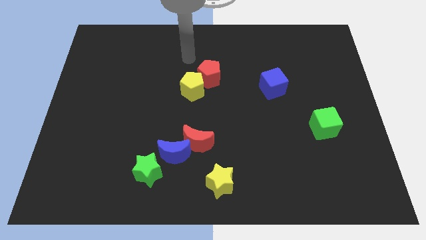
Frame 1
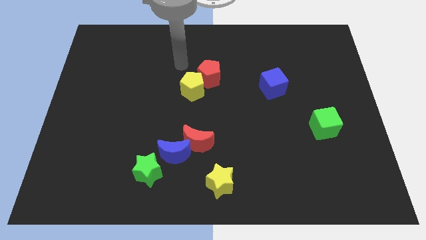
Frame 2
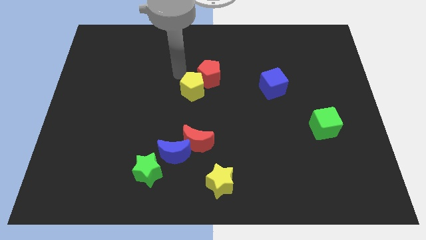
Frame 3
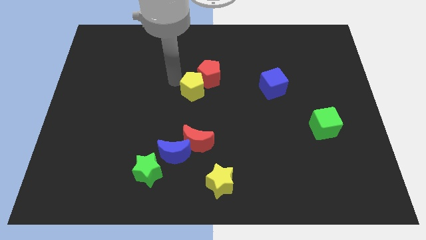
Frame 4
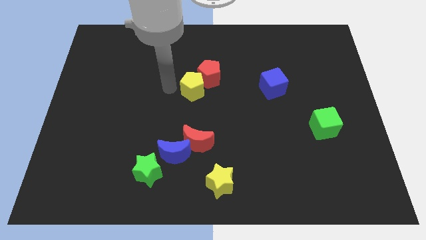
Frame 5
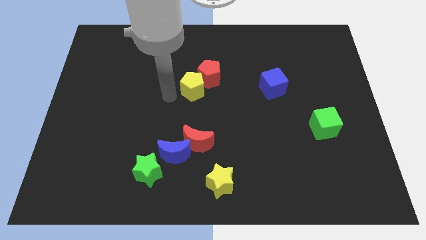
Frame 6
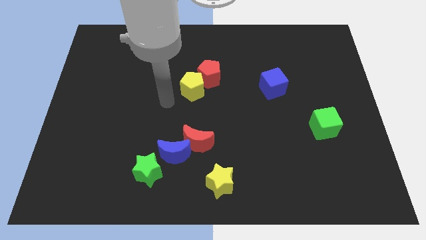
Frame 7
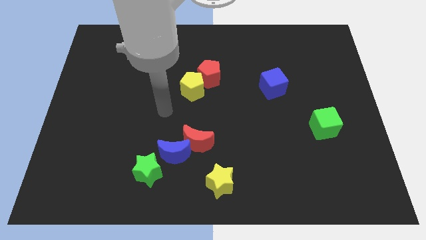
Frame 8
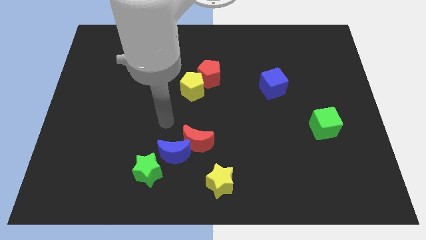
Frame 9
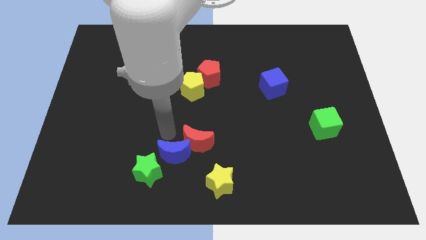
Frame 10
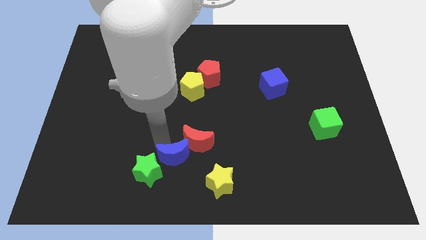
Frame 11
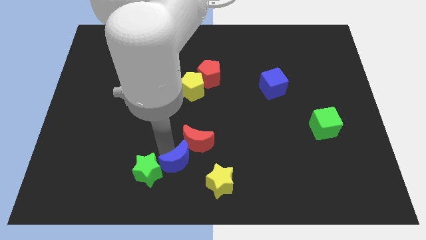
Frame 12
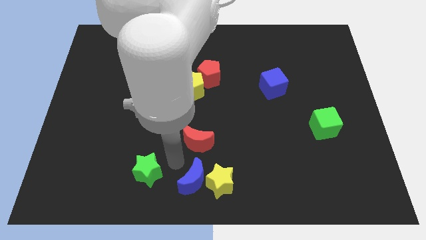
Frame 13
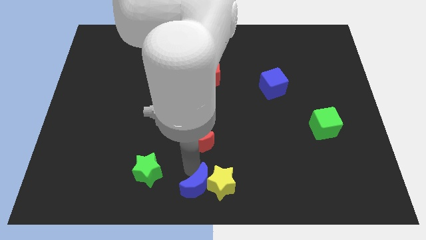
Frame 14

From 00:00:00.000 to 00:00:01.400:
pull the red moon apart from the blue moon

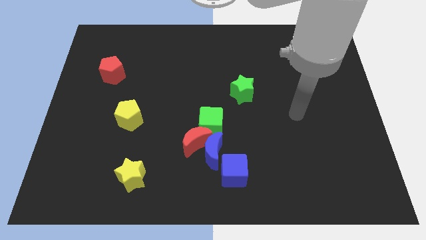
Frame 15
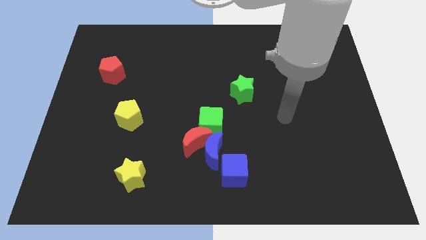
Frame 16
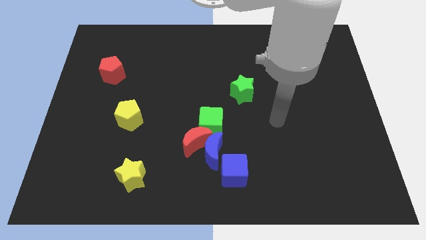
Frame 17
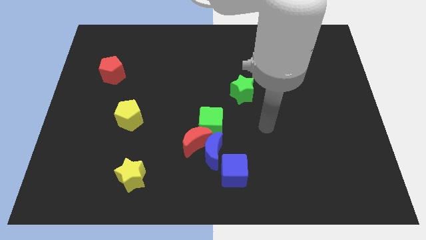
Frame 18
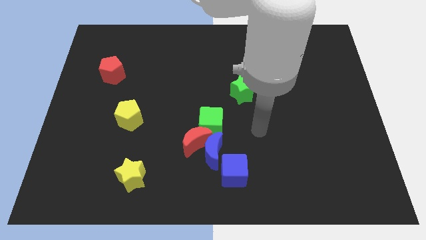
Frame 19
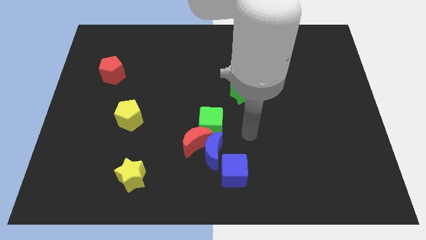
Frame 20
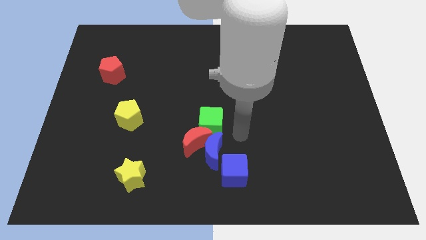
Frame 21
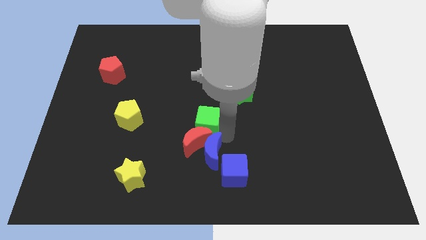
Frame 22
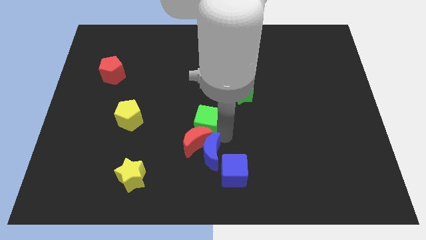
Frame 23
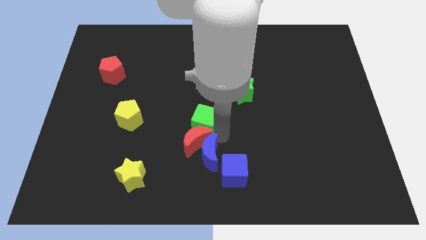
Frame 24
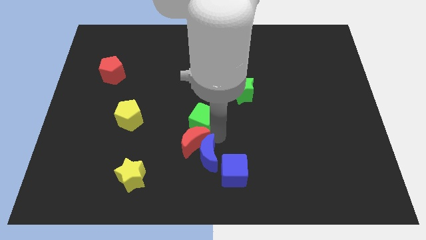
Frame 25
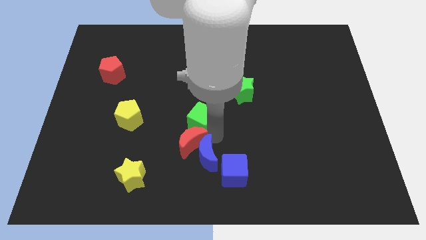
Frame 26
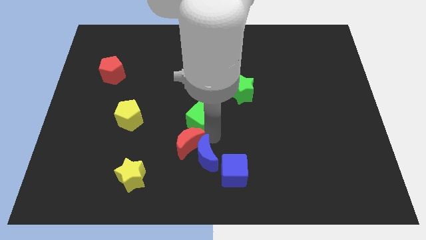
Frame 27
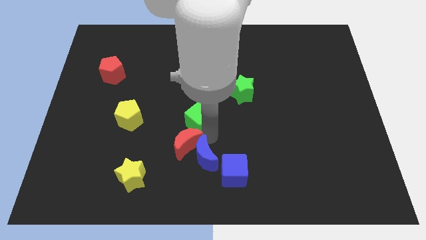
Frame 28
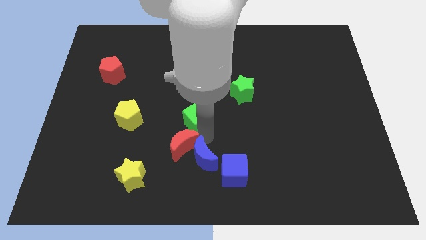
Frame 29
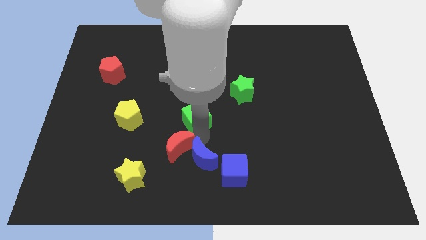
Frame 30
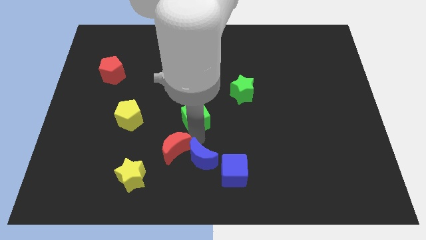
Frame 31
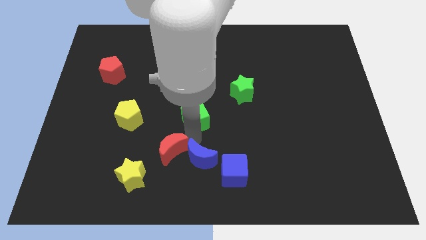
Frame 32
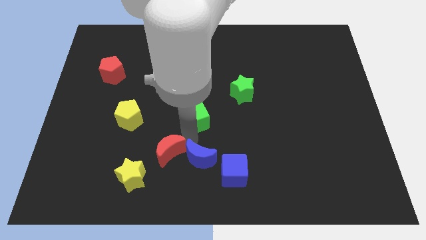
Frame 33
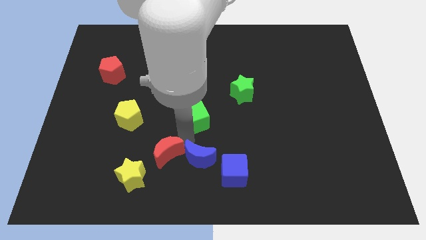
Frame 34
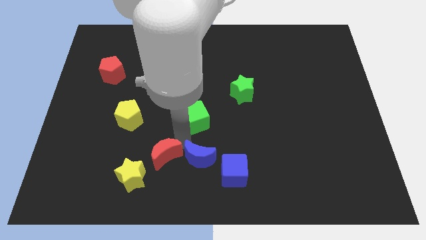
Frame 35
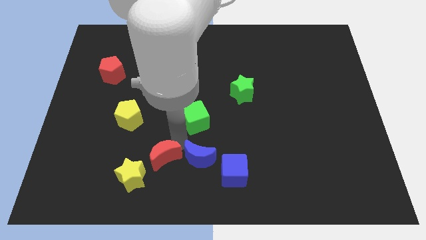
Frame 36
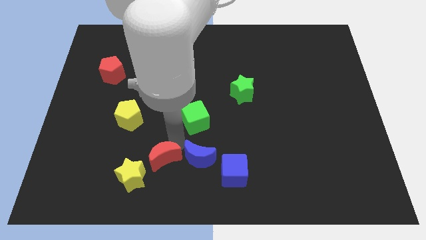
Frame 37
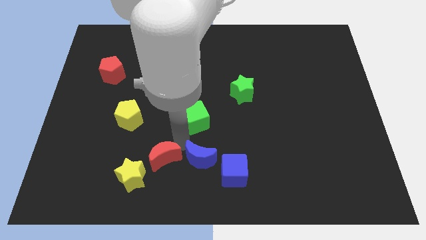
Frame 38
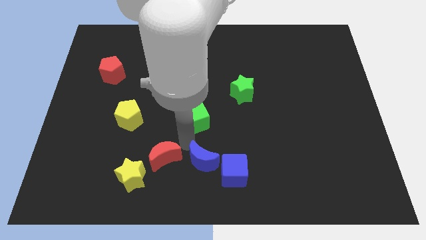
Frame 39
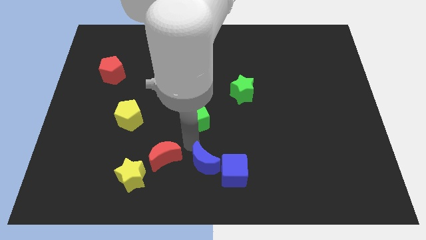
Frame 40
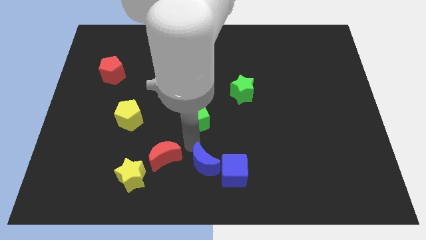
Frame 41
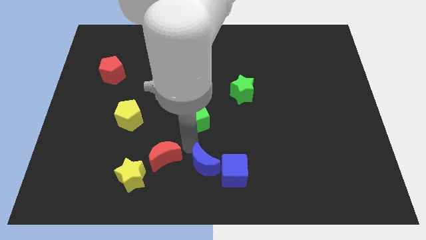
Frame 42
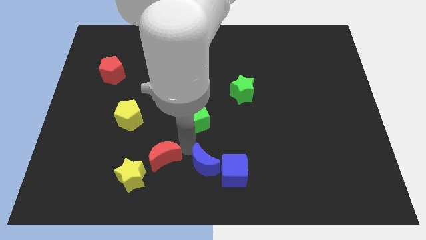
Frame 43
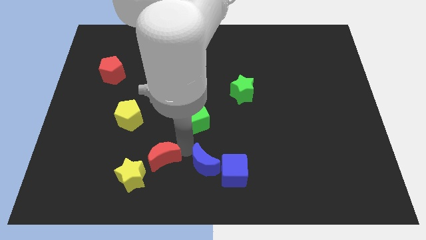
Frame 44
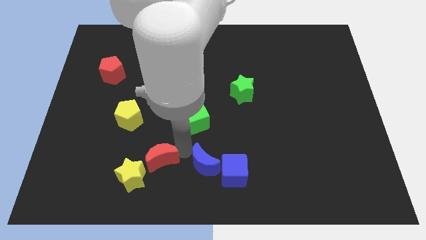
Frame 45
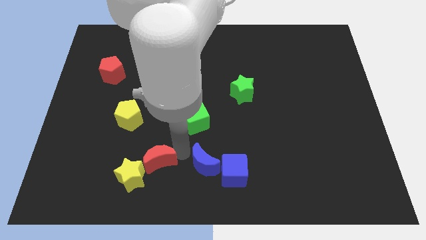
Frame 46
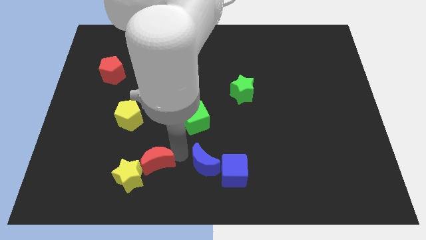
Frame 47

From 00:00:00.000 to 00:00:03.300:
pull the red moon apart from the blue moon and green cube

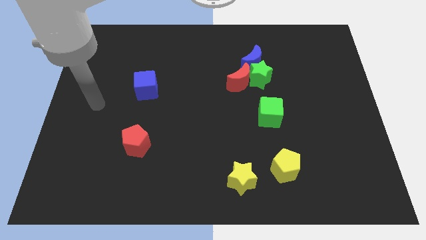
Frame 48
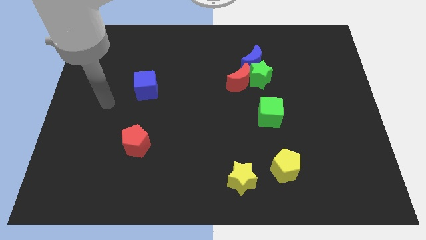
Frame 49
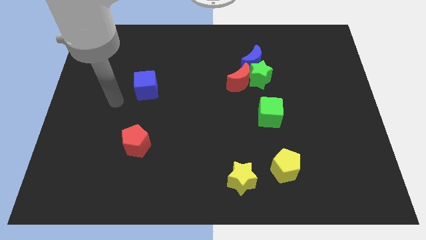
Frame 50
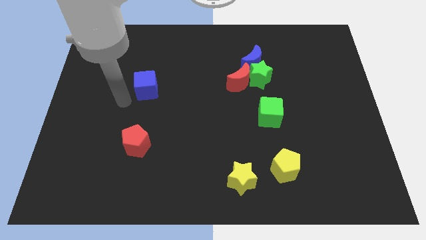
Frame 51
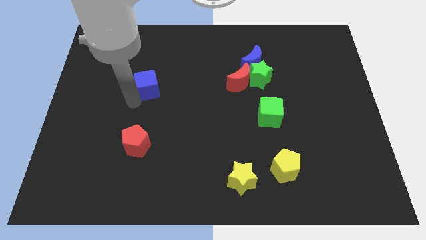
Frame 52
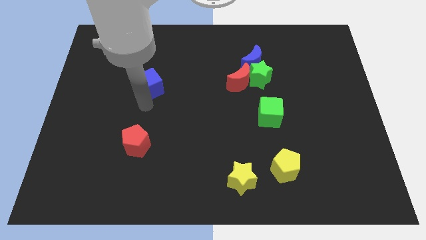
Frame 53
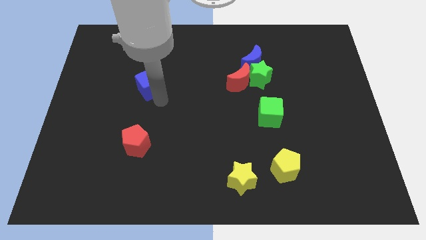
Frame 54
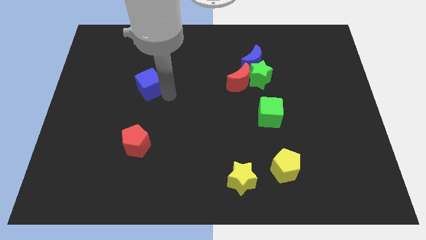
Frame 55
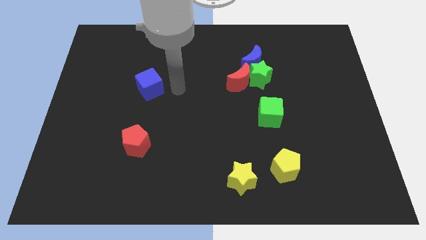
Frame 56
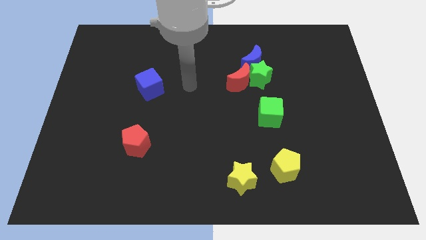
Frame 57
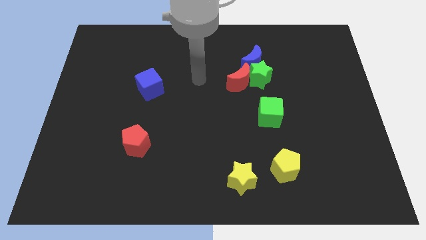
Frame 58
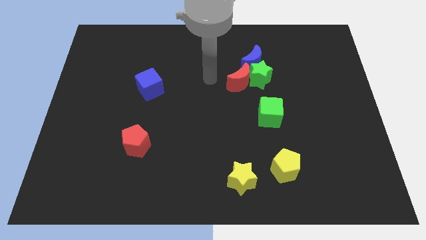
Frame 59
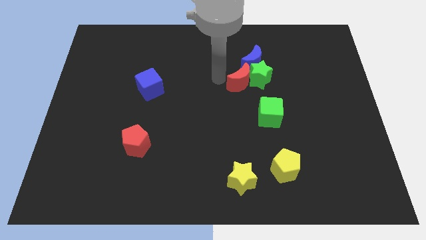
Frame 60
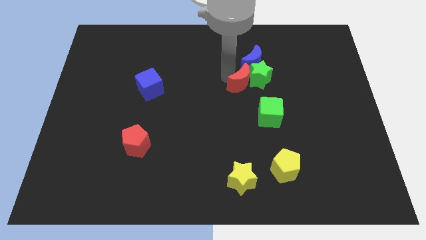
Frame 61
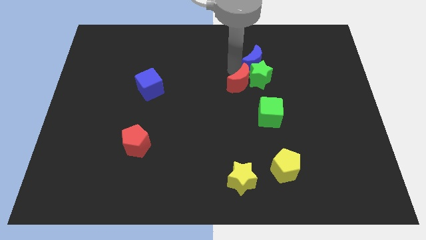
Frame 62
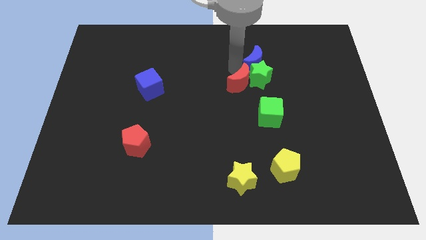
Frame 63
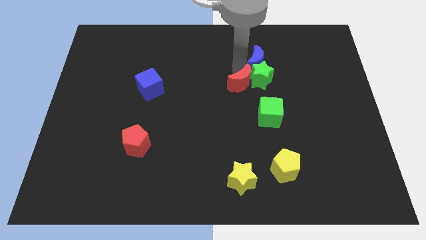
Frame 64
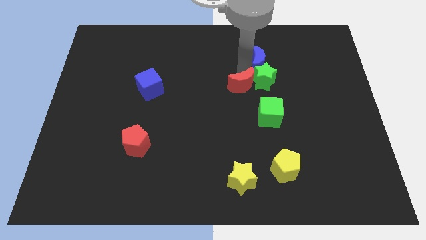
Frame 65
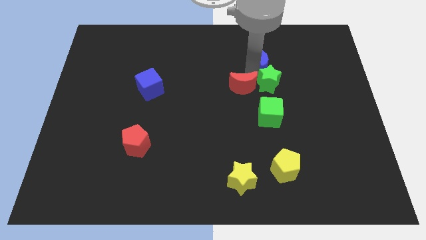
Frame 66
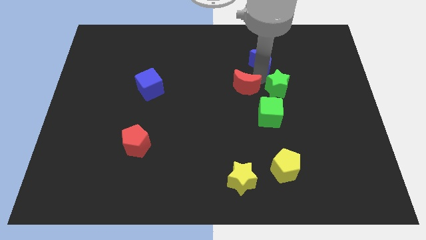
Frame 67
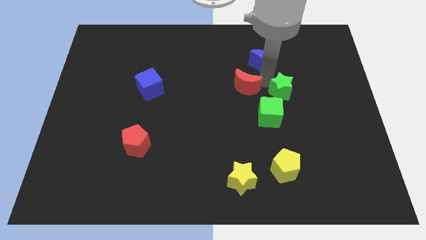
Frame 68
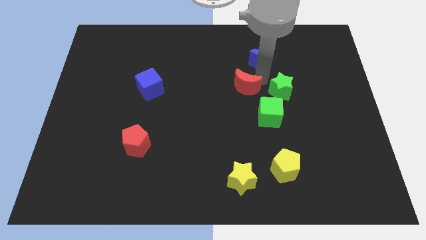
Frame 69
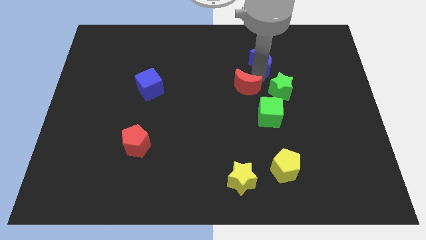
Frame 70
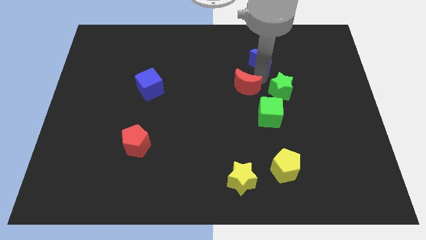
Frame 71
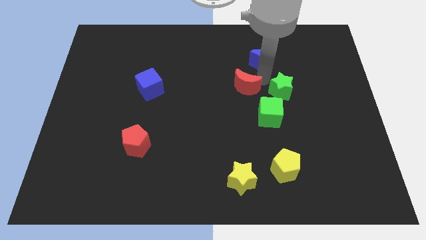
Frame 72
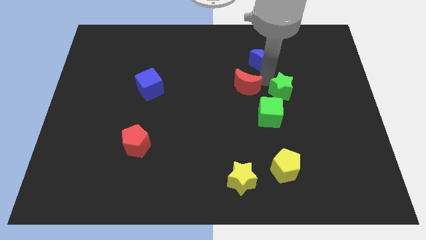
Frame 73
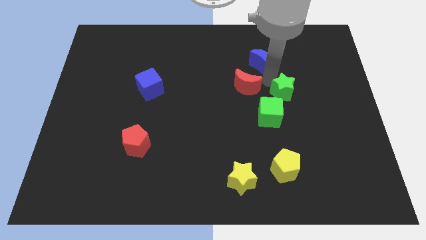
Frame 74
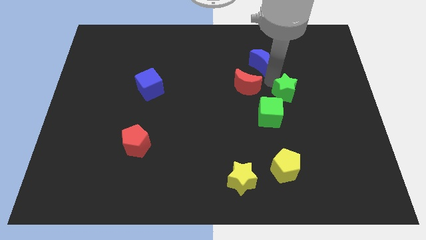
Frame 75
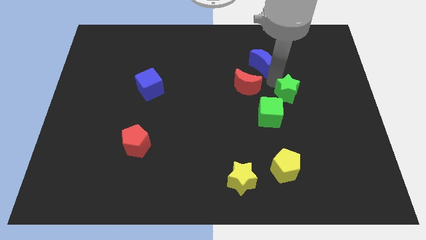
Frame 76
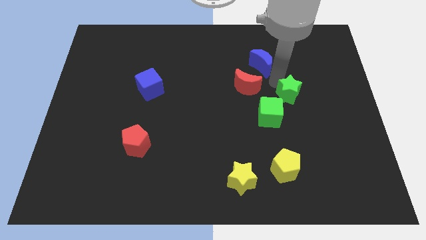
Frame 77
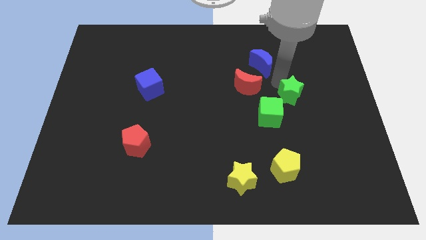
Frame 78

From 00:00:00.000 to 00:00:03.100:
separate the green star from the blue moon and red moon

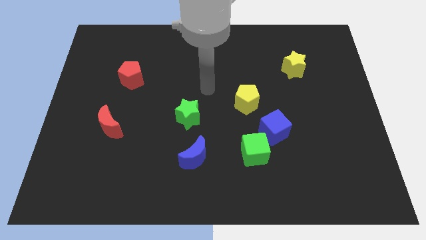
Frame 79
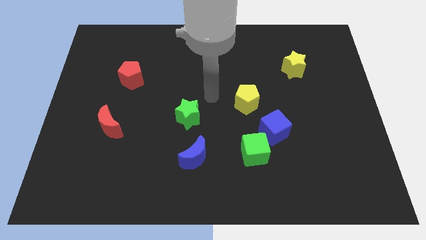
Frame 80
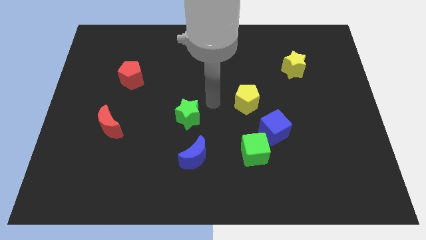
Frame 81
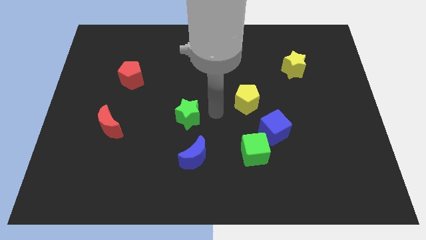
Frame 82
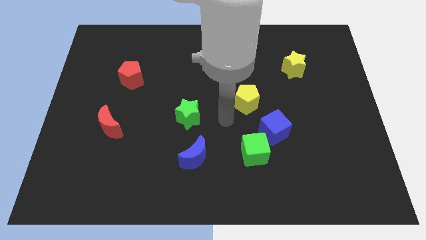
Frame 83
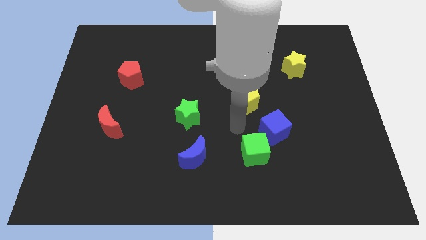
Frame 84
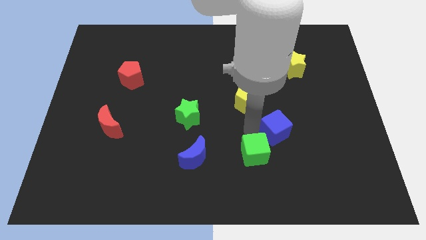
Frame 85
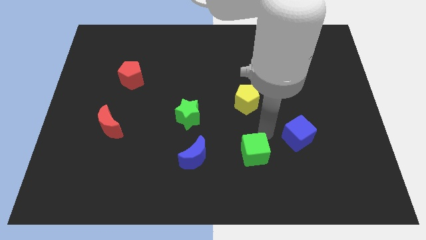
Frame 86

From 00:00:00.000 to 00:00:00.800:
separate the green cube from the blue cube

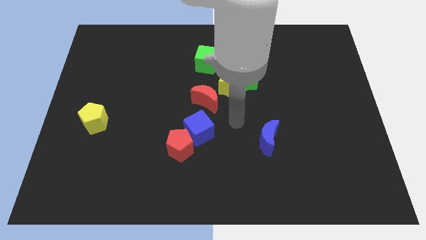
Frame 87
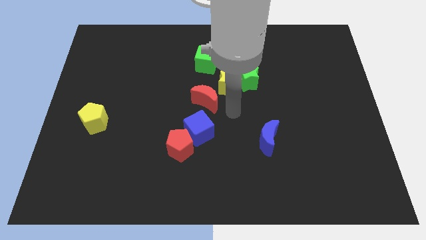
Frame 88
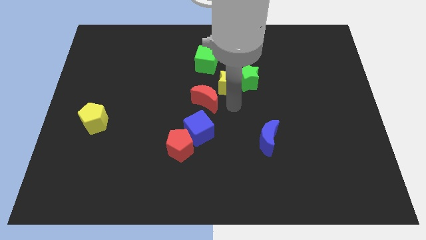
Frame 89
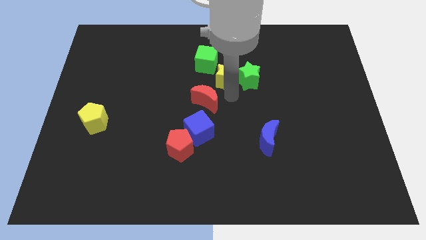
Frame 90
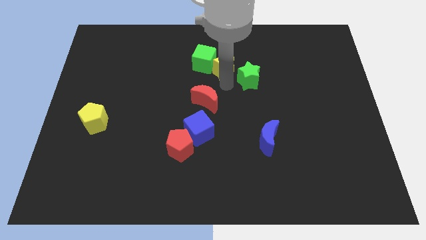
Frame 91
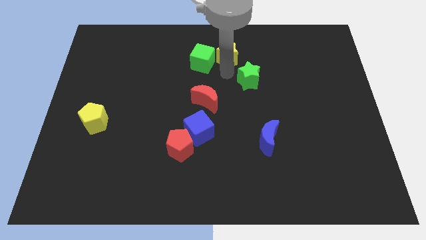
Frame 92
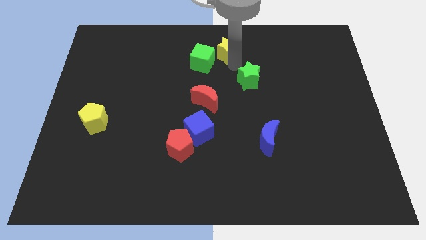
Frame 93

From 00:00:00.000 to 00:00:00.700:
separate the green star from the yellow star
